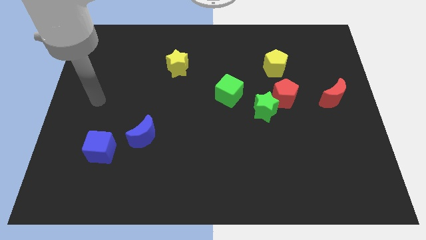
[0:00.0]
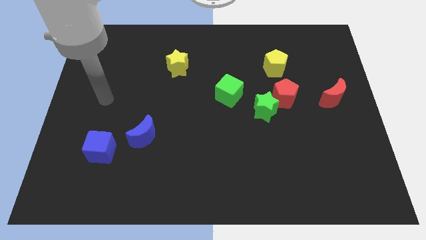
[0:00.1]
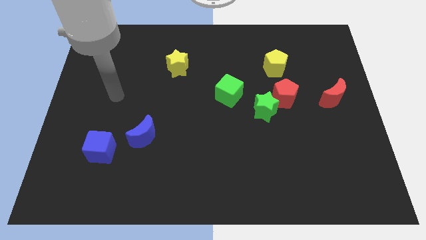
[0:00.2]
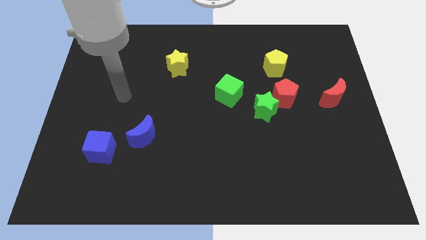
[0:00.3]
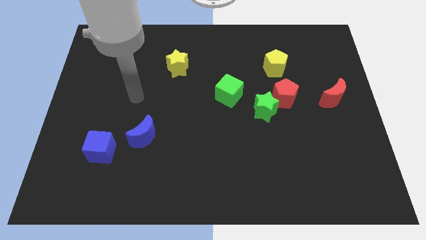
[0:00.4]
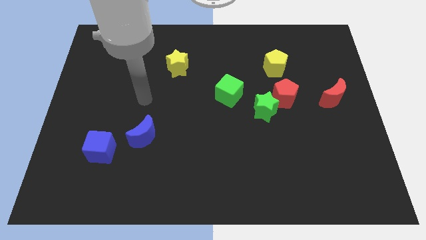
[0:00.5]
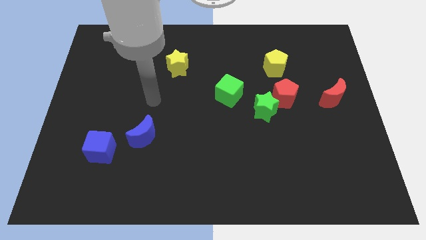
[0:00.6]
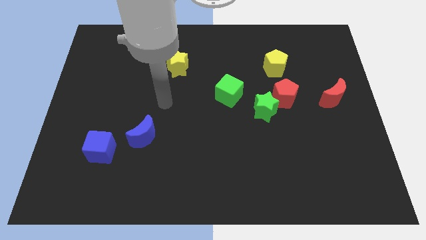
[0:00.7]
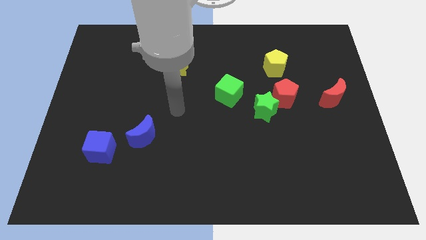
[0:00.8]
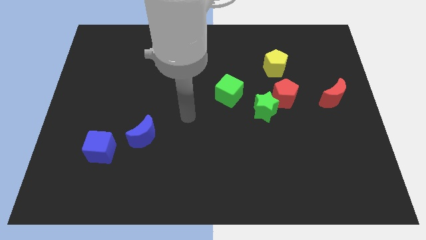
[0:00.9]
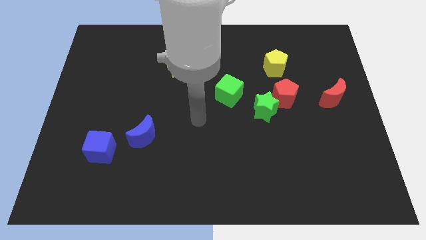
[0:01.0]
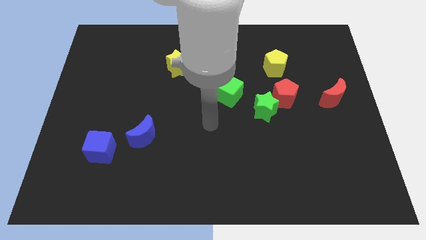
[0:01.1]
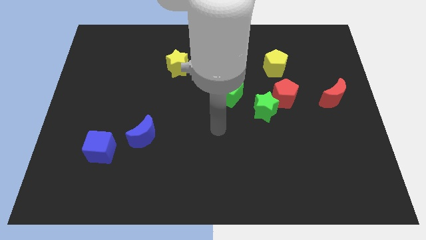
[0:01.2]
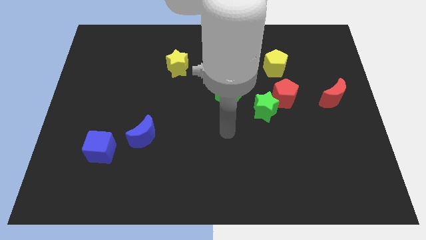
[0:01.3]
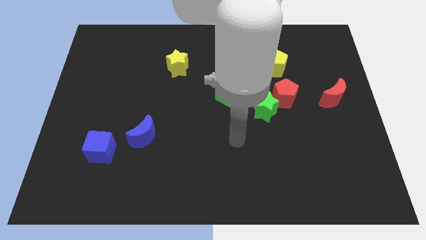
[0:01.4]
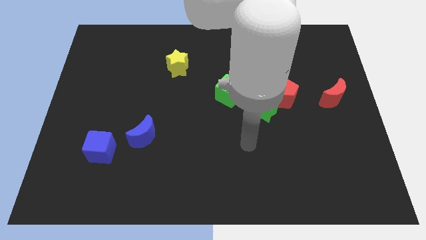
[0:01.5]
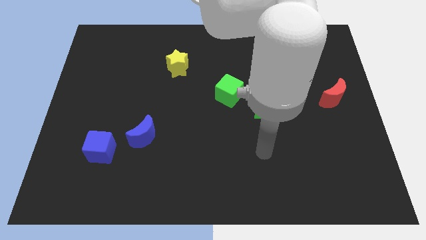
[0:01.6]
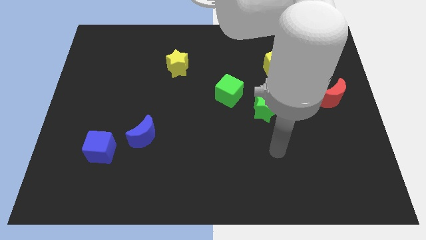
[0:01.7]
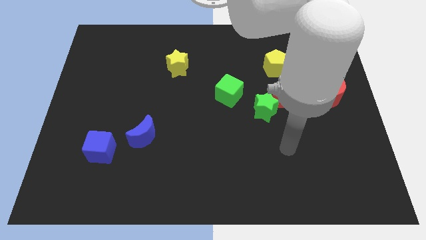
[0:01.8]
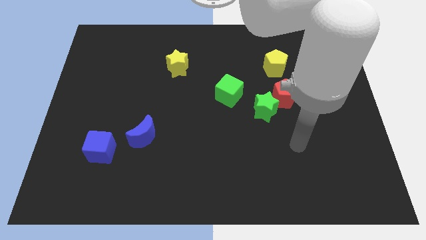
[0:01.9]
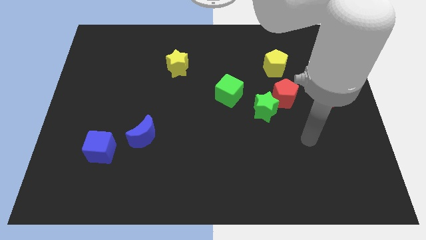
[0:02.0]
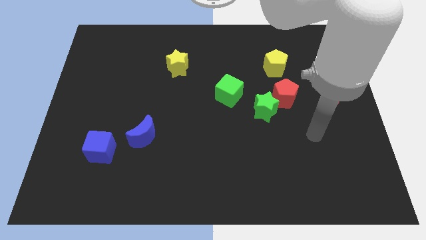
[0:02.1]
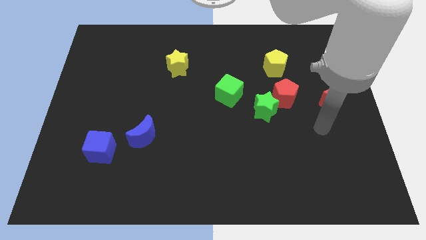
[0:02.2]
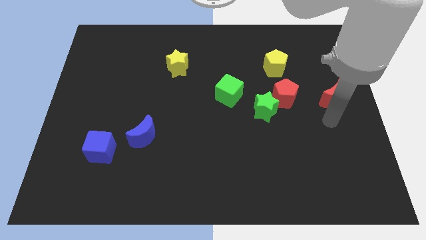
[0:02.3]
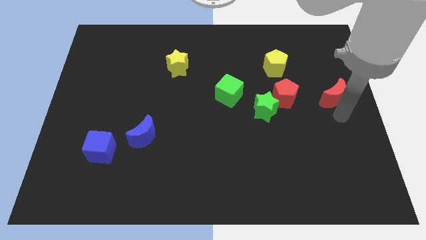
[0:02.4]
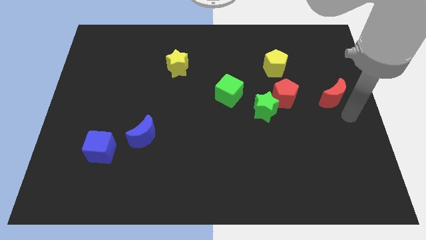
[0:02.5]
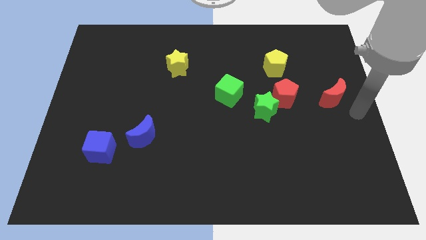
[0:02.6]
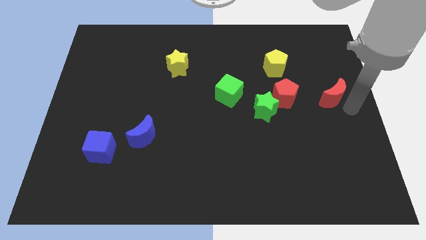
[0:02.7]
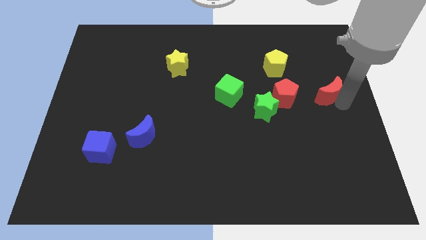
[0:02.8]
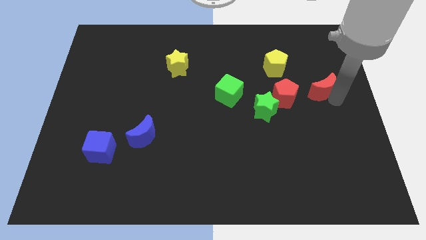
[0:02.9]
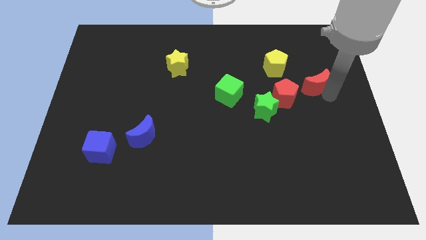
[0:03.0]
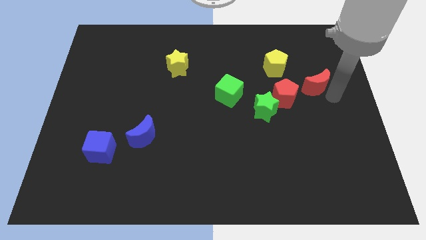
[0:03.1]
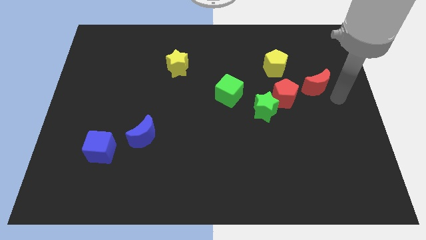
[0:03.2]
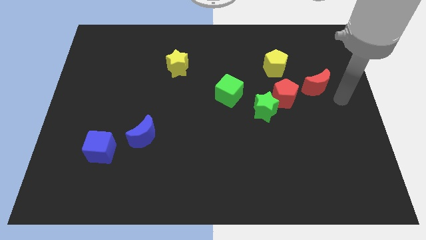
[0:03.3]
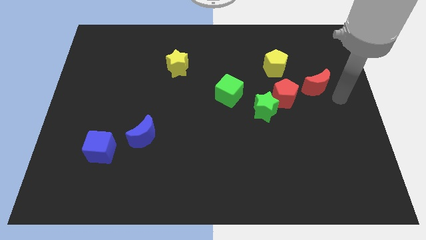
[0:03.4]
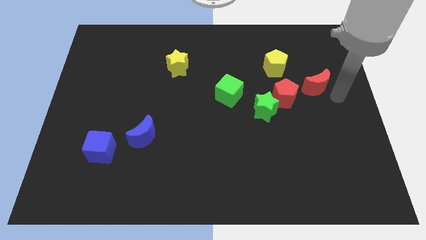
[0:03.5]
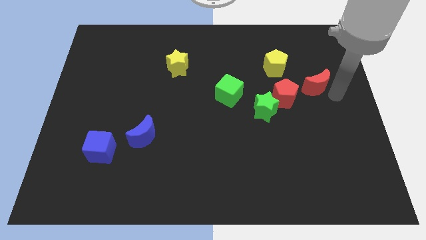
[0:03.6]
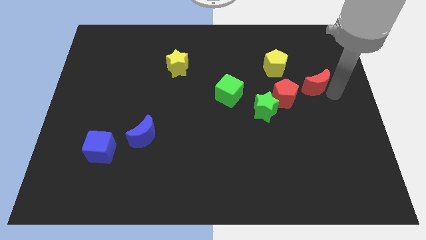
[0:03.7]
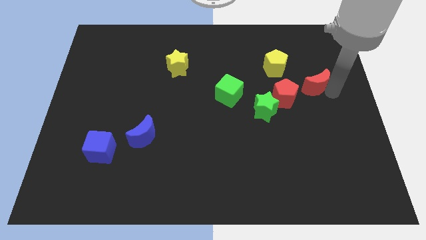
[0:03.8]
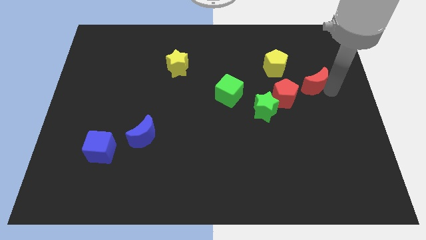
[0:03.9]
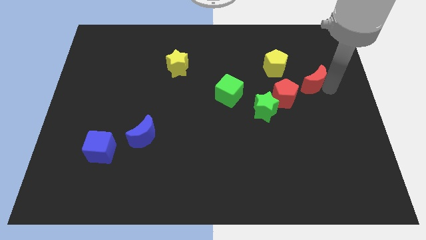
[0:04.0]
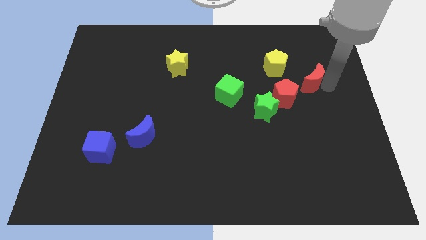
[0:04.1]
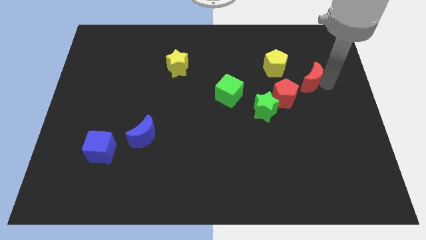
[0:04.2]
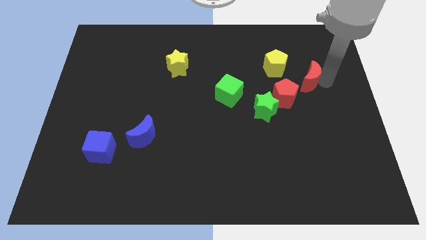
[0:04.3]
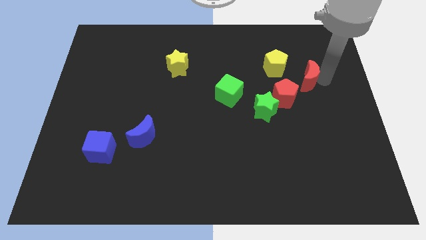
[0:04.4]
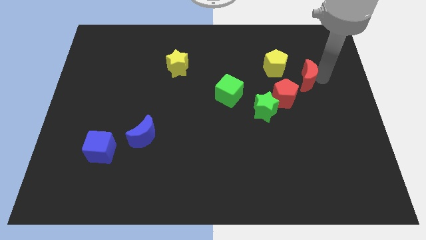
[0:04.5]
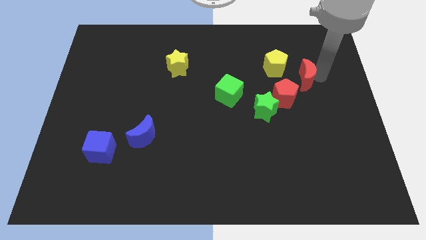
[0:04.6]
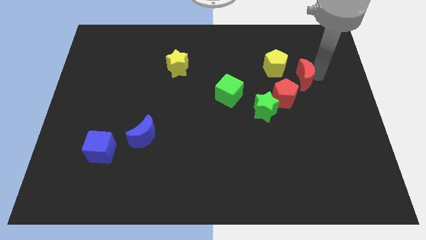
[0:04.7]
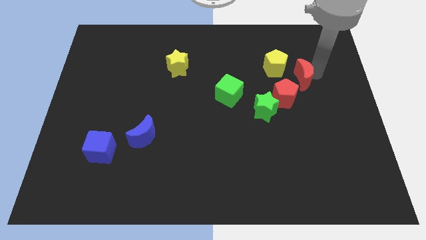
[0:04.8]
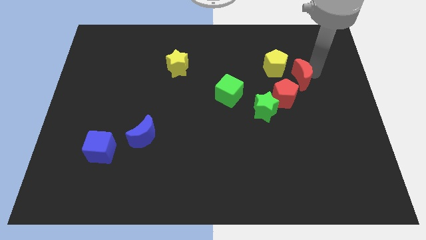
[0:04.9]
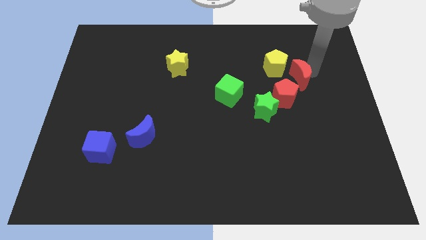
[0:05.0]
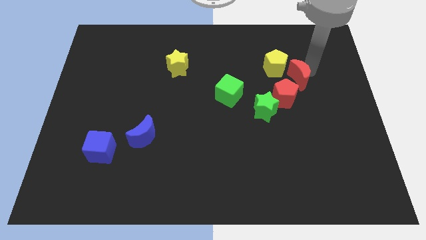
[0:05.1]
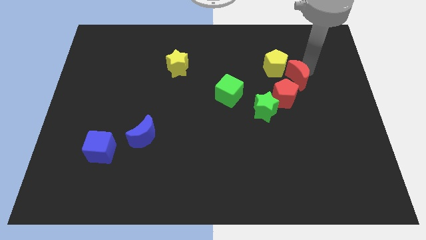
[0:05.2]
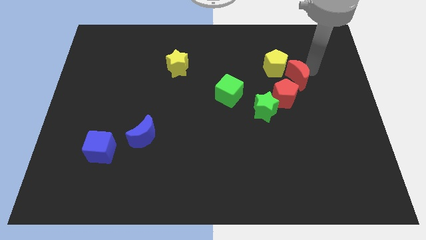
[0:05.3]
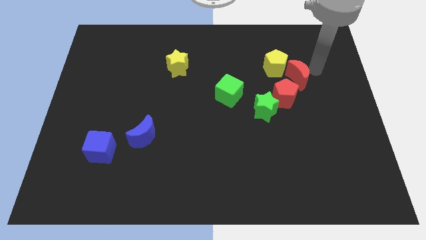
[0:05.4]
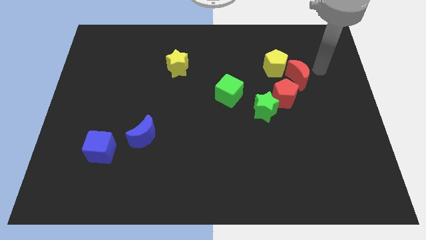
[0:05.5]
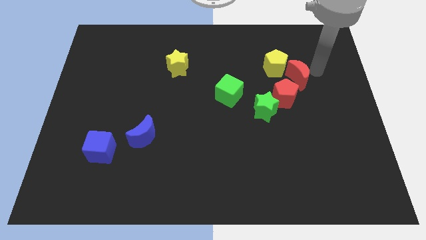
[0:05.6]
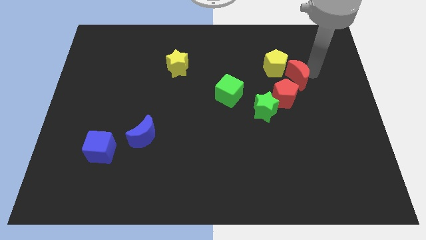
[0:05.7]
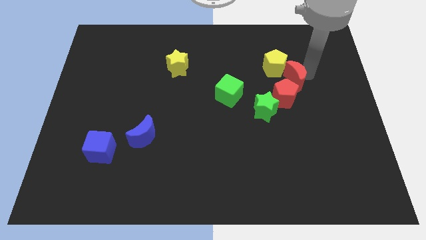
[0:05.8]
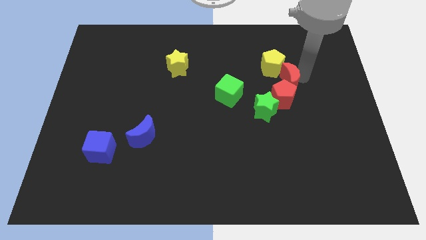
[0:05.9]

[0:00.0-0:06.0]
move the red moon slightly to the left

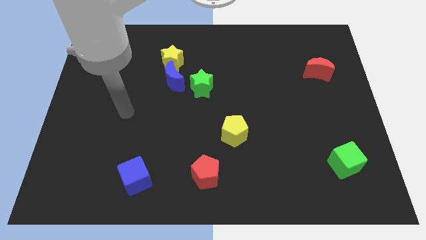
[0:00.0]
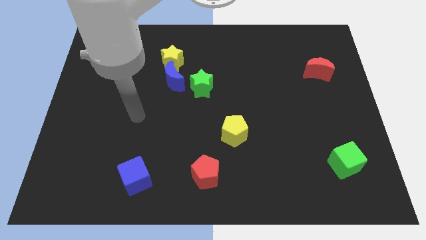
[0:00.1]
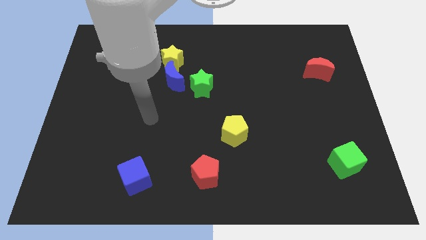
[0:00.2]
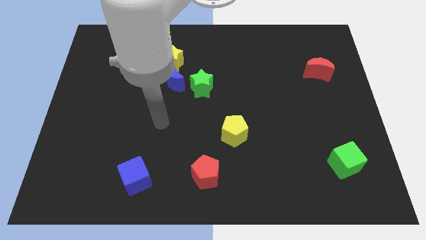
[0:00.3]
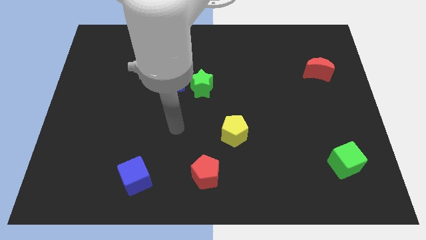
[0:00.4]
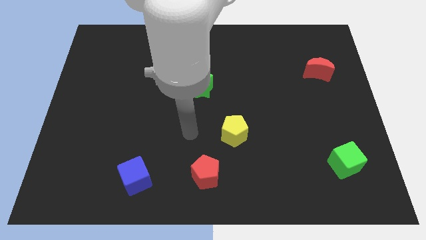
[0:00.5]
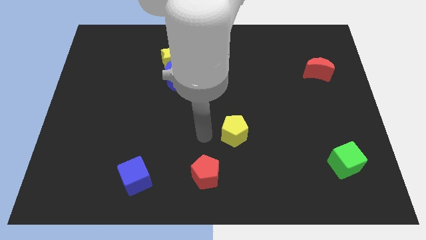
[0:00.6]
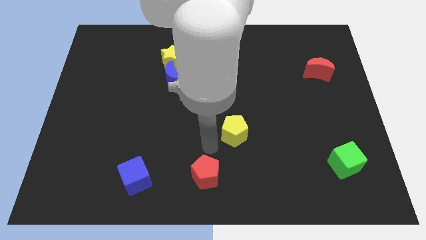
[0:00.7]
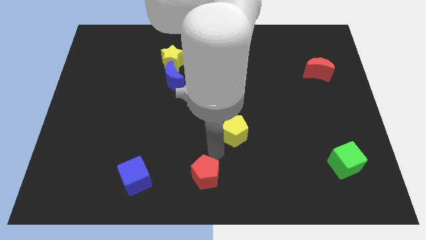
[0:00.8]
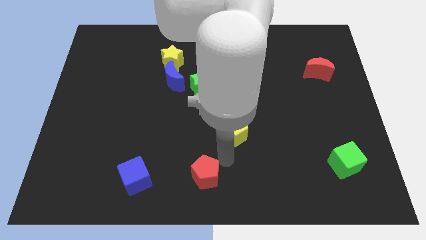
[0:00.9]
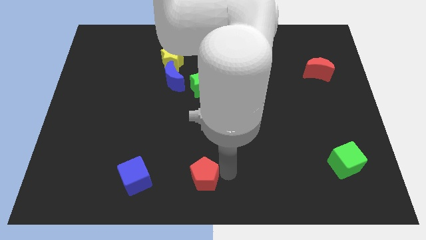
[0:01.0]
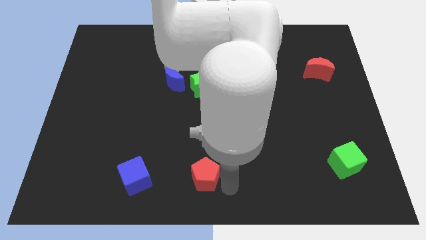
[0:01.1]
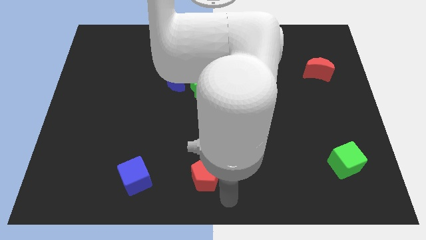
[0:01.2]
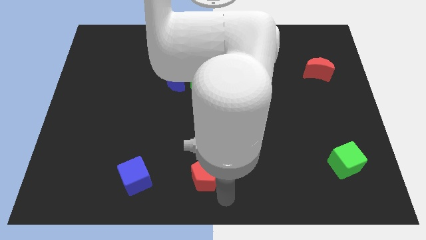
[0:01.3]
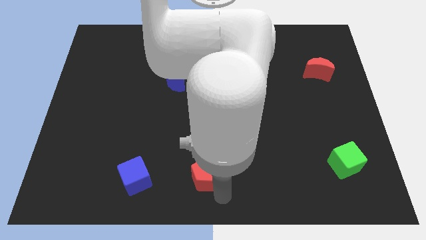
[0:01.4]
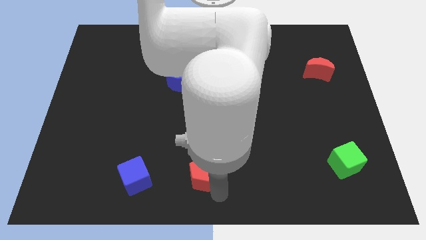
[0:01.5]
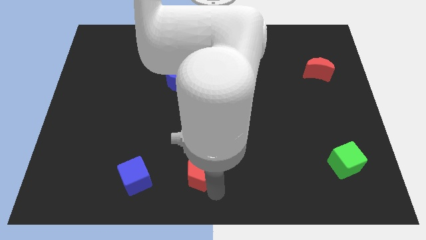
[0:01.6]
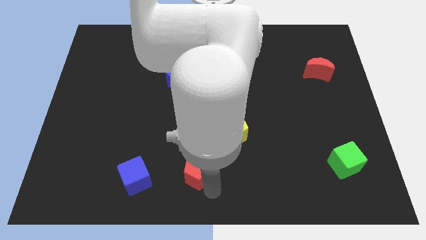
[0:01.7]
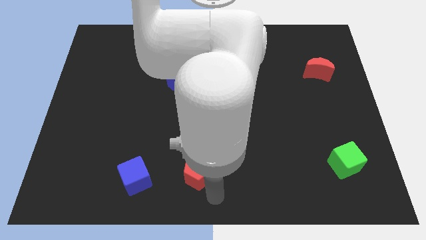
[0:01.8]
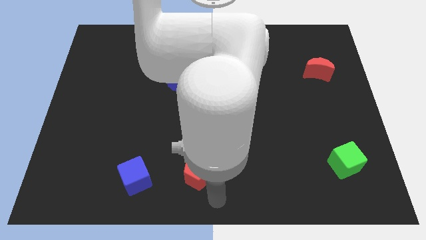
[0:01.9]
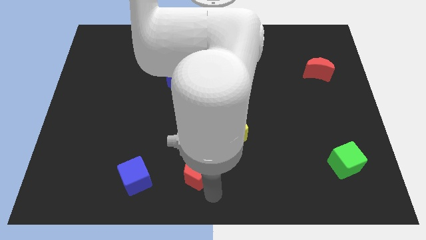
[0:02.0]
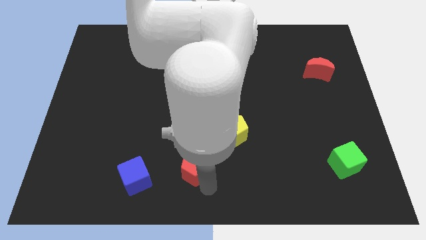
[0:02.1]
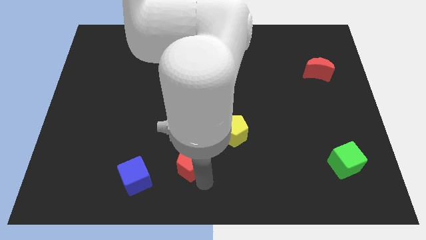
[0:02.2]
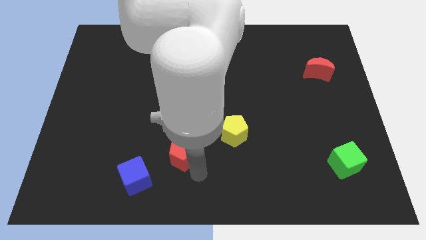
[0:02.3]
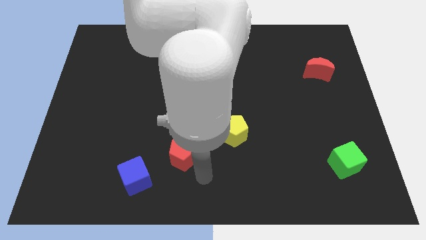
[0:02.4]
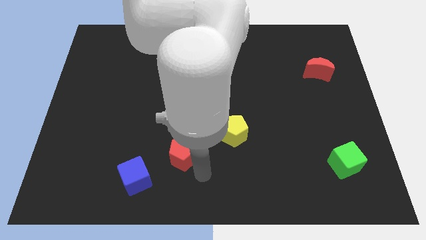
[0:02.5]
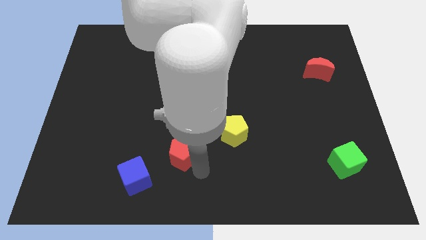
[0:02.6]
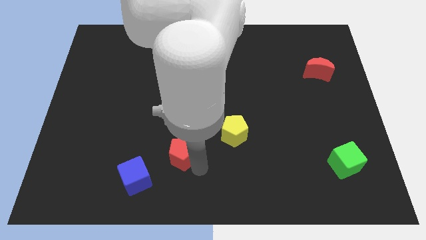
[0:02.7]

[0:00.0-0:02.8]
move the red pentagon a little bit diagonally upwards and to the left
